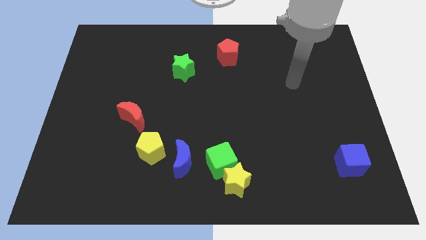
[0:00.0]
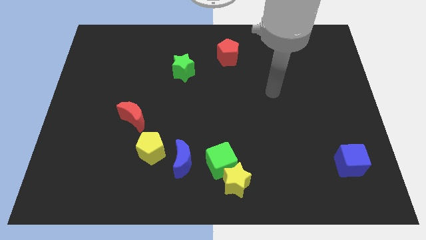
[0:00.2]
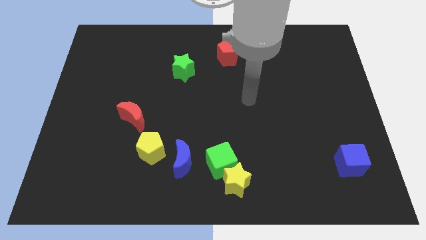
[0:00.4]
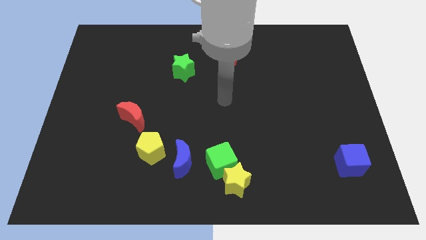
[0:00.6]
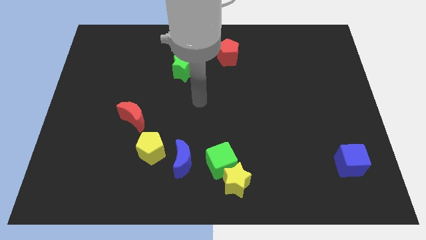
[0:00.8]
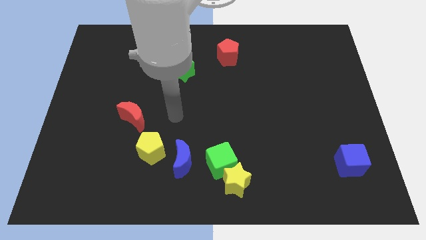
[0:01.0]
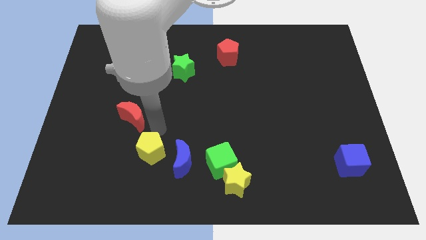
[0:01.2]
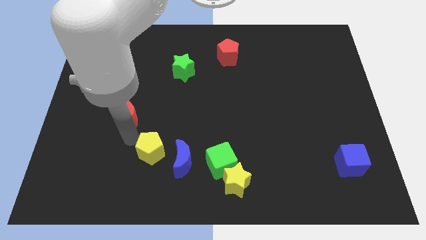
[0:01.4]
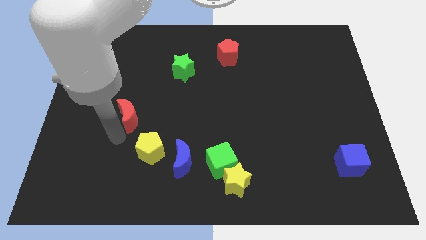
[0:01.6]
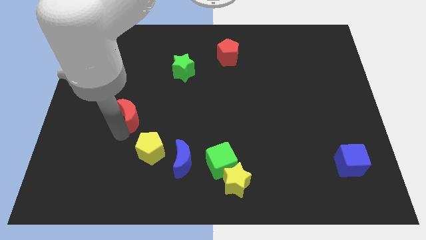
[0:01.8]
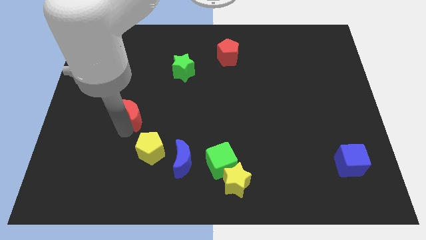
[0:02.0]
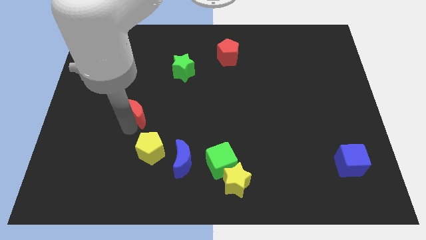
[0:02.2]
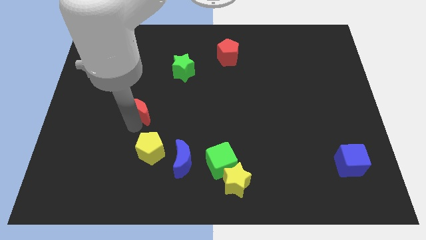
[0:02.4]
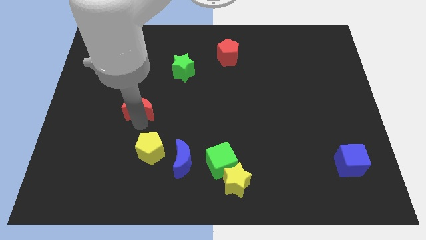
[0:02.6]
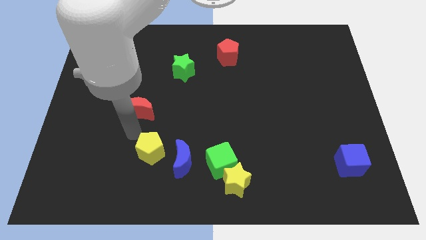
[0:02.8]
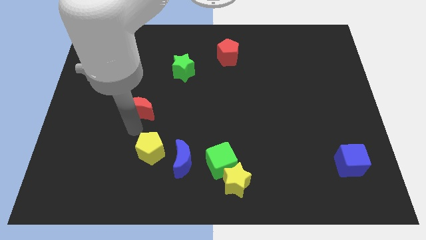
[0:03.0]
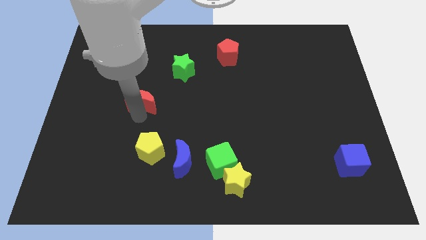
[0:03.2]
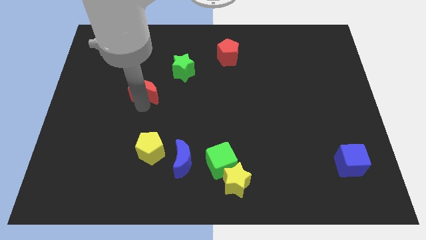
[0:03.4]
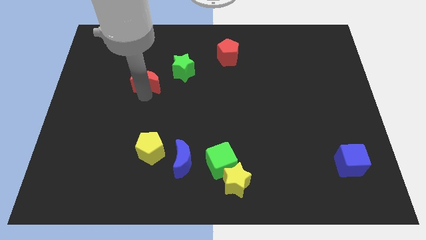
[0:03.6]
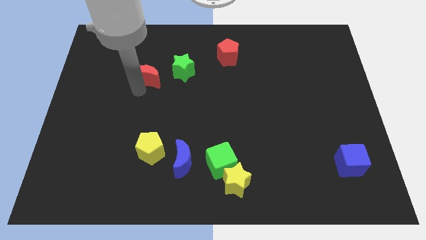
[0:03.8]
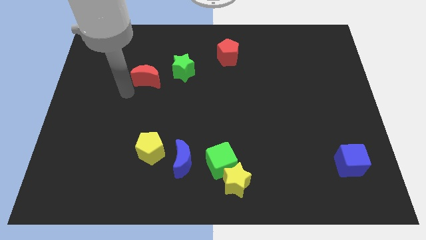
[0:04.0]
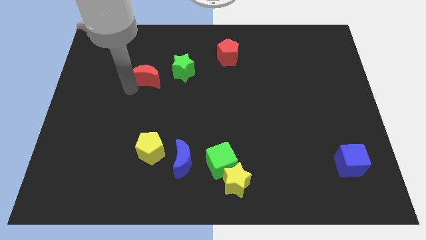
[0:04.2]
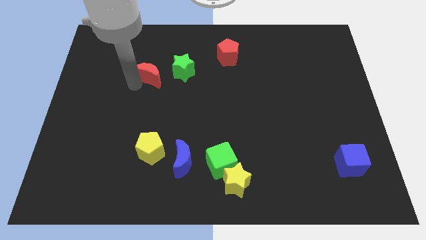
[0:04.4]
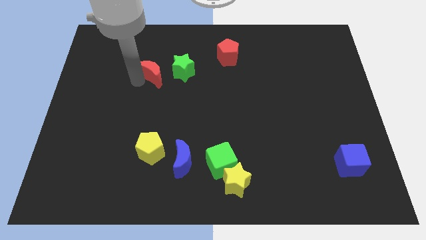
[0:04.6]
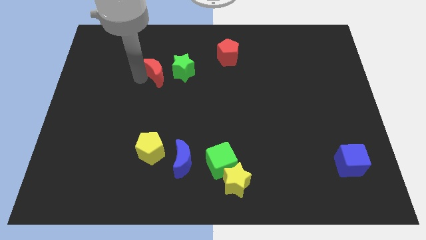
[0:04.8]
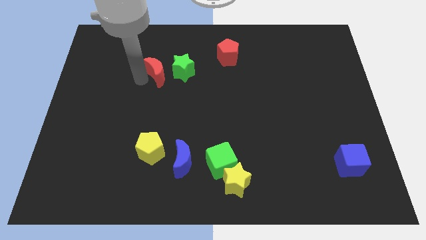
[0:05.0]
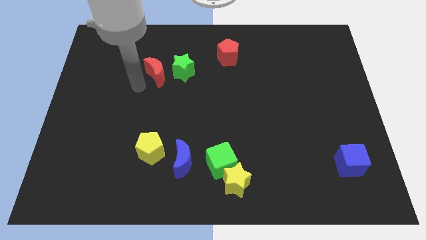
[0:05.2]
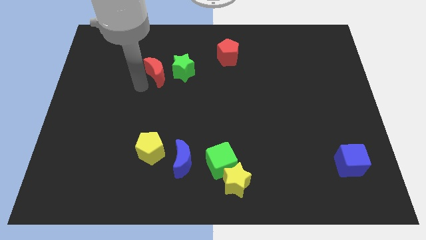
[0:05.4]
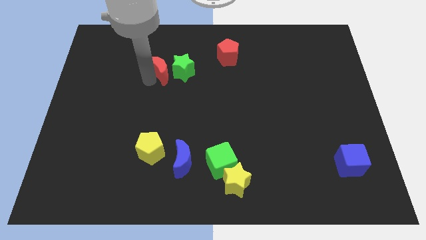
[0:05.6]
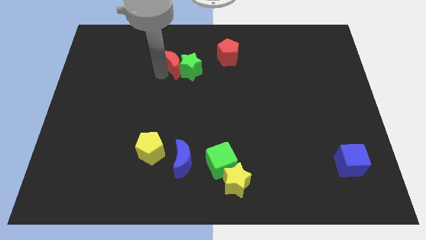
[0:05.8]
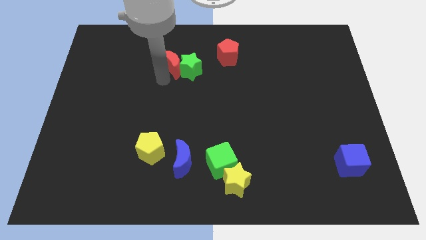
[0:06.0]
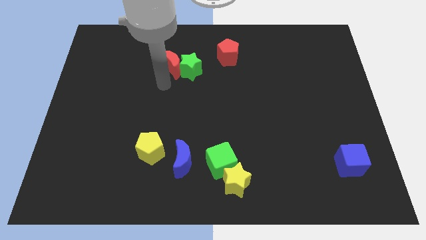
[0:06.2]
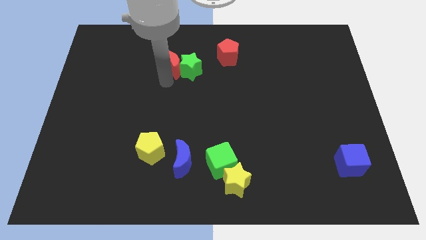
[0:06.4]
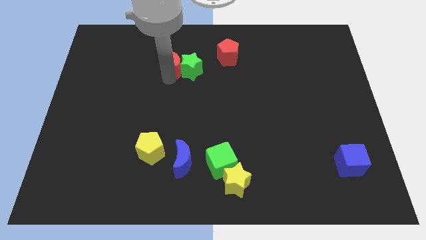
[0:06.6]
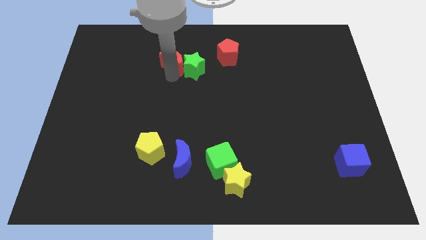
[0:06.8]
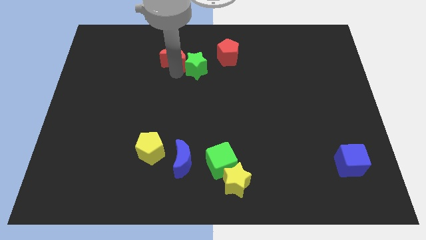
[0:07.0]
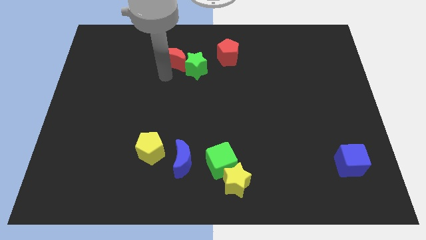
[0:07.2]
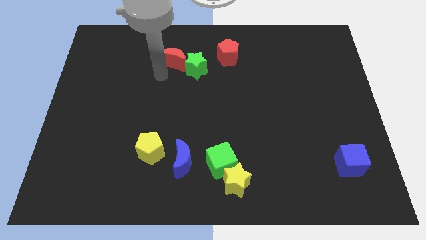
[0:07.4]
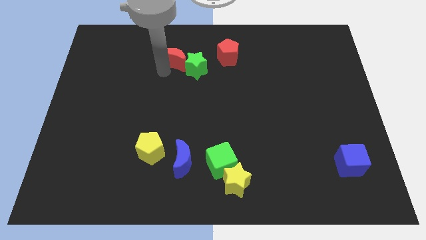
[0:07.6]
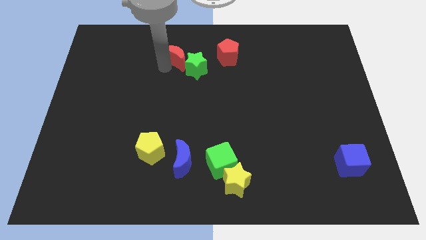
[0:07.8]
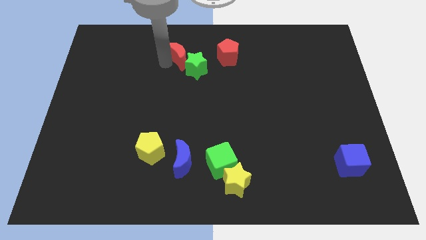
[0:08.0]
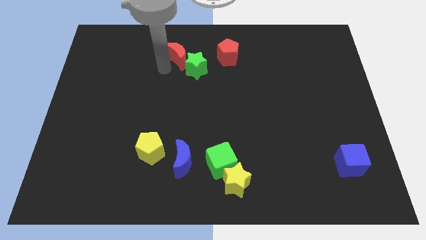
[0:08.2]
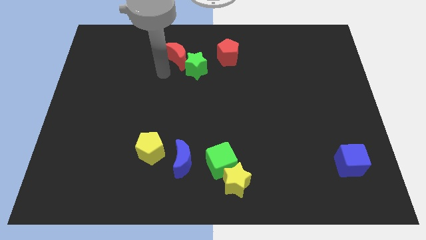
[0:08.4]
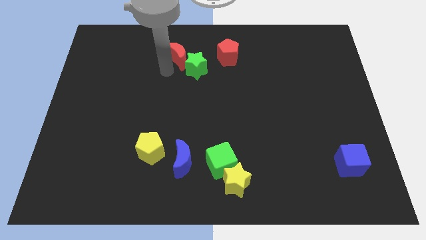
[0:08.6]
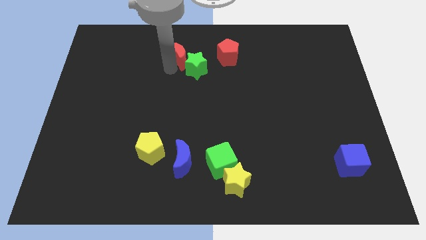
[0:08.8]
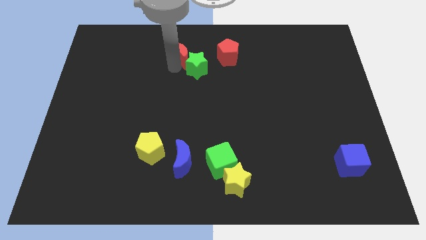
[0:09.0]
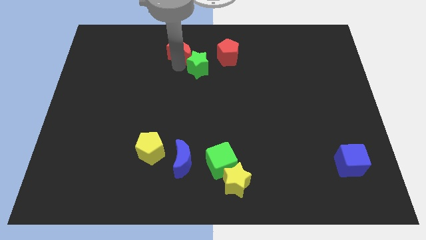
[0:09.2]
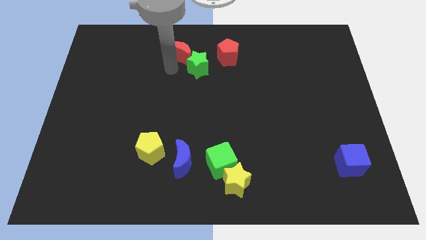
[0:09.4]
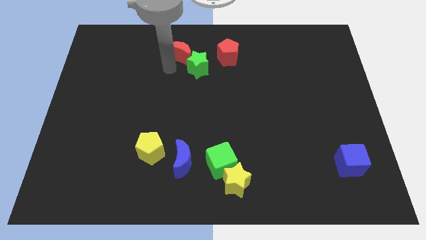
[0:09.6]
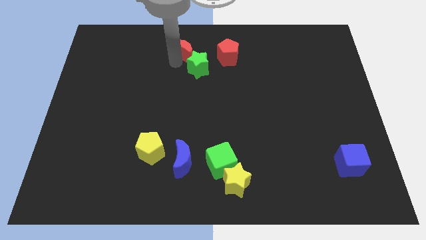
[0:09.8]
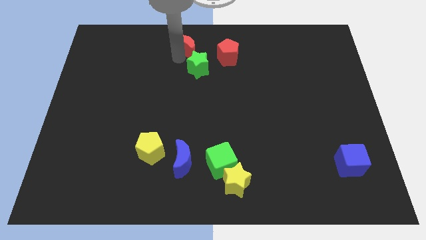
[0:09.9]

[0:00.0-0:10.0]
move the red moon to the top

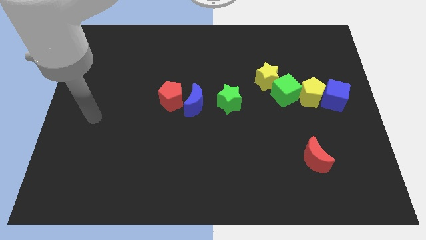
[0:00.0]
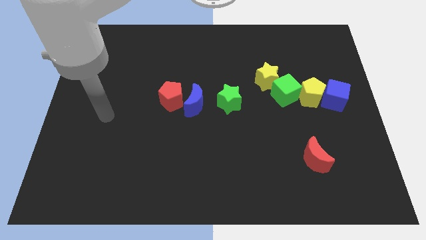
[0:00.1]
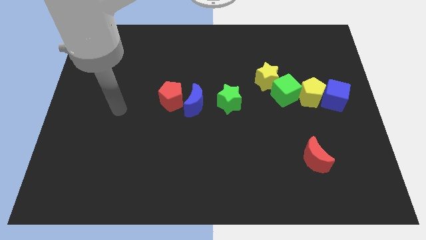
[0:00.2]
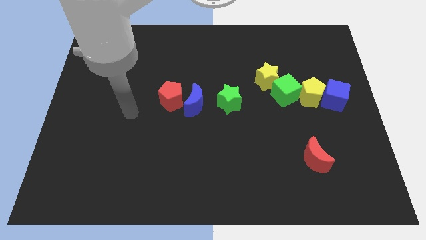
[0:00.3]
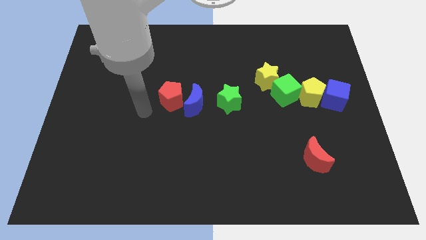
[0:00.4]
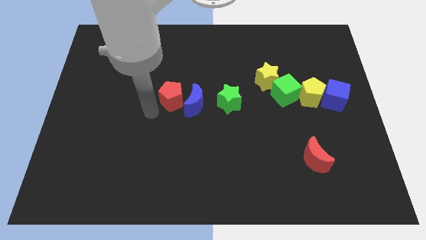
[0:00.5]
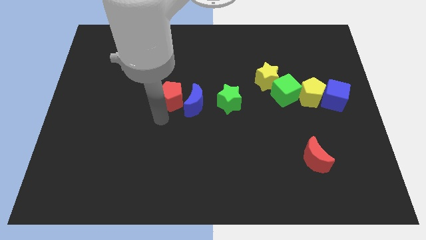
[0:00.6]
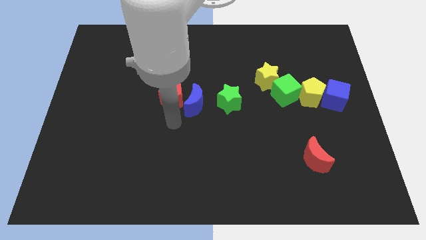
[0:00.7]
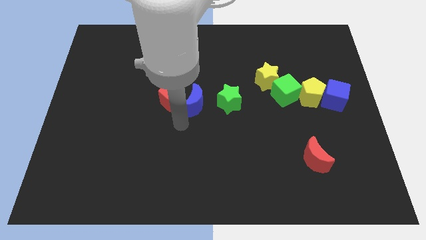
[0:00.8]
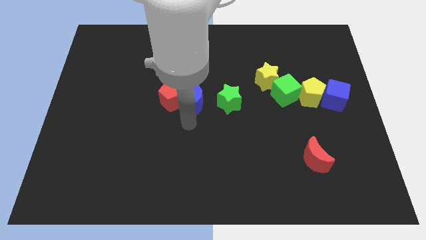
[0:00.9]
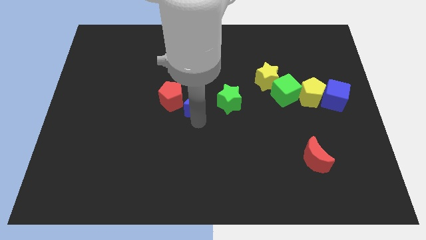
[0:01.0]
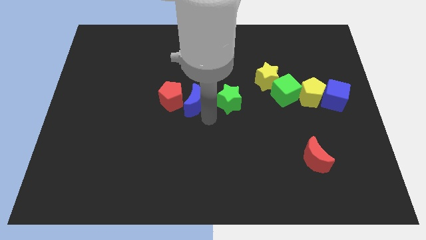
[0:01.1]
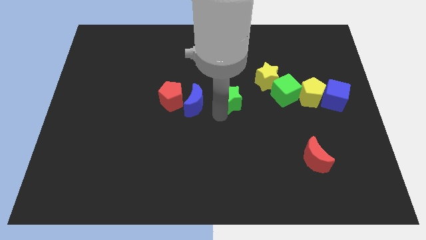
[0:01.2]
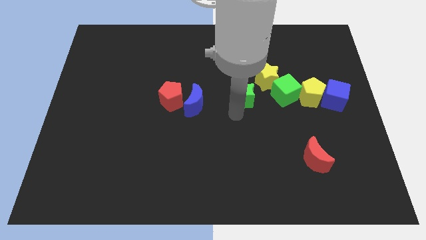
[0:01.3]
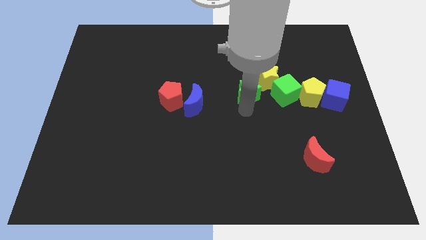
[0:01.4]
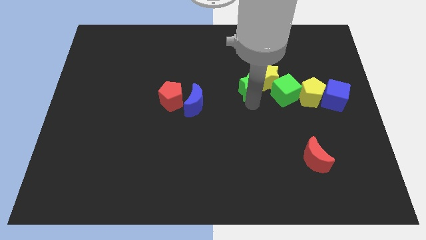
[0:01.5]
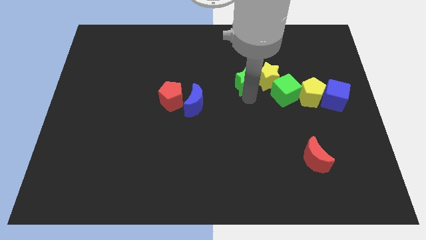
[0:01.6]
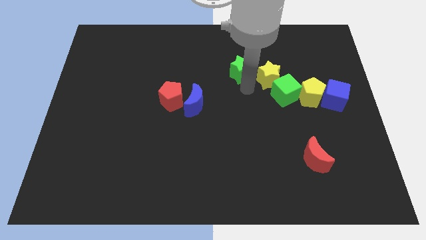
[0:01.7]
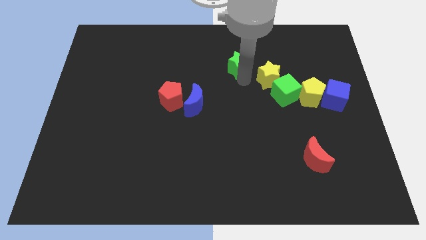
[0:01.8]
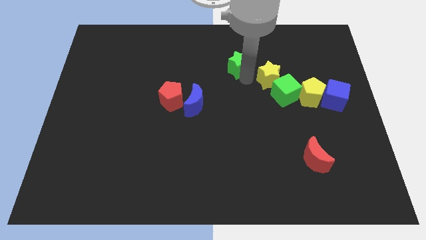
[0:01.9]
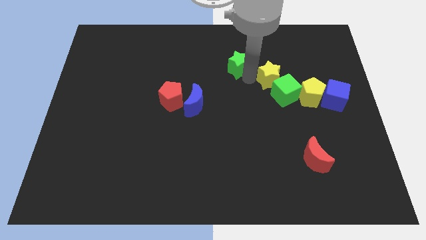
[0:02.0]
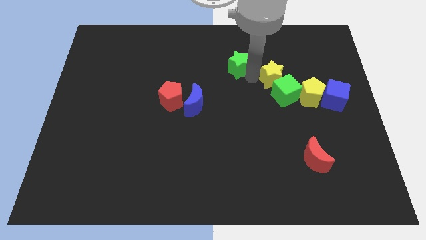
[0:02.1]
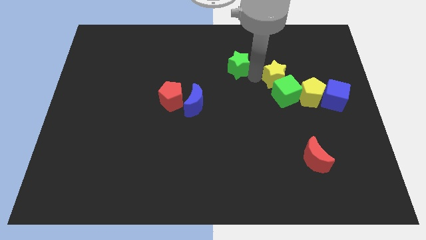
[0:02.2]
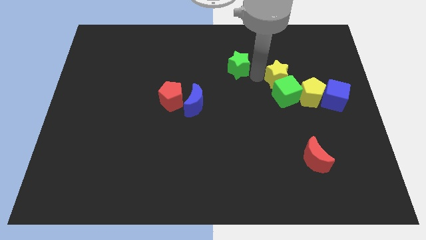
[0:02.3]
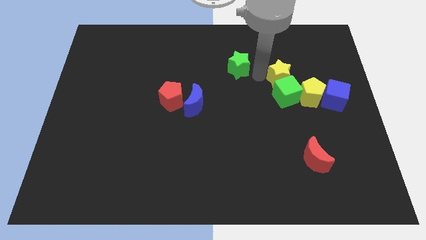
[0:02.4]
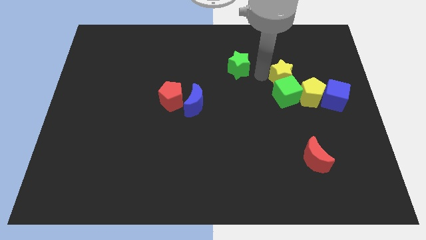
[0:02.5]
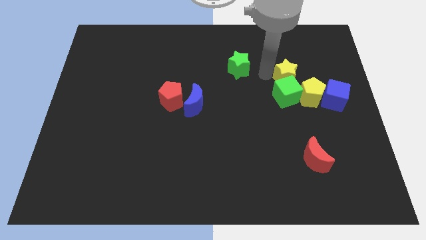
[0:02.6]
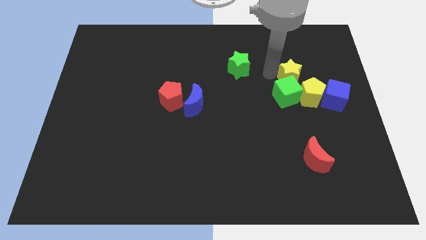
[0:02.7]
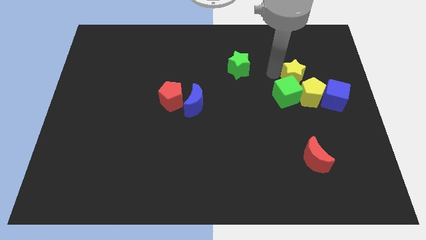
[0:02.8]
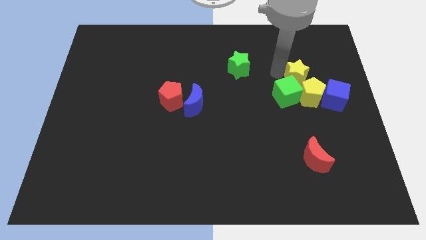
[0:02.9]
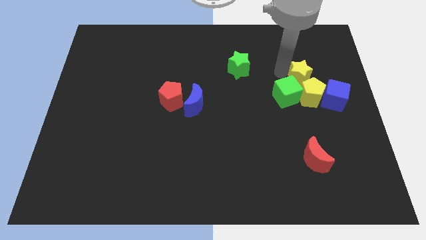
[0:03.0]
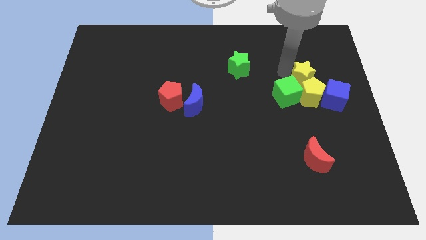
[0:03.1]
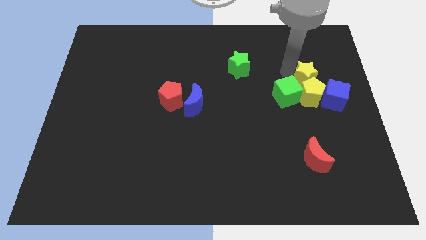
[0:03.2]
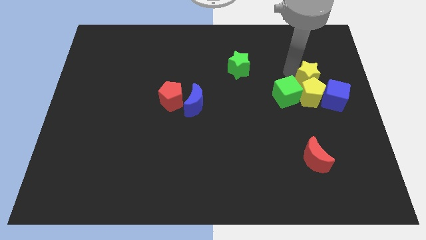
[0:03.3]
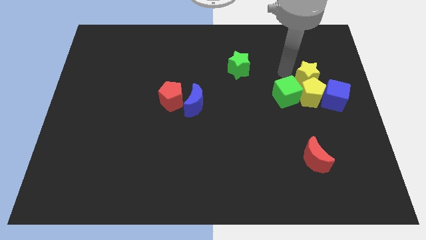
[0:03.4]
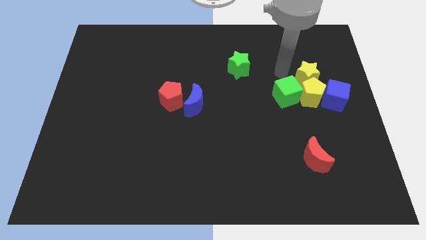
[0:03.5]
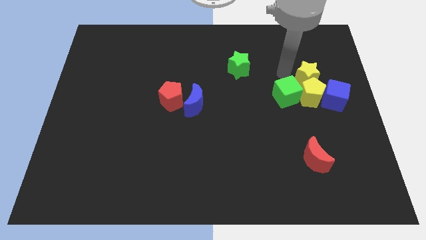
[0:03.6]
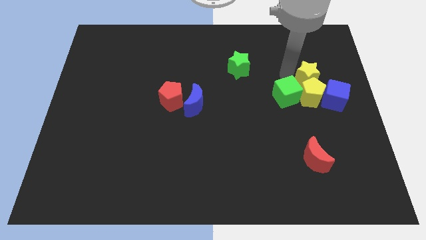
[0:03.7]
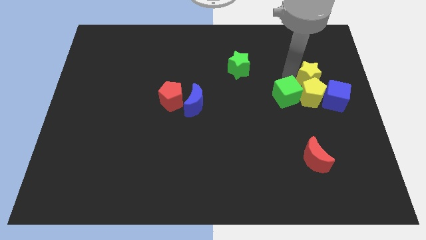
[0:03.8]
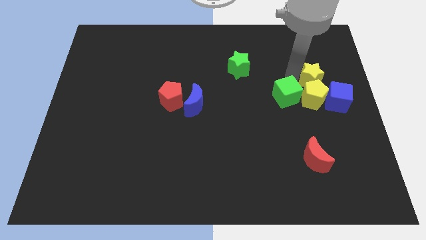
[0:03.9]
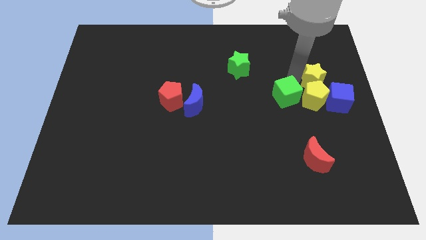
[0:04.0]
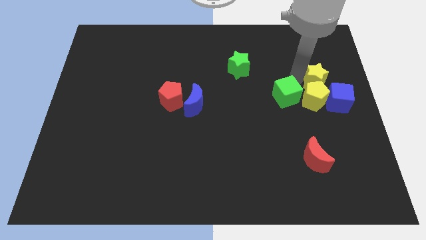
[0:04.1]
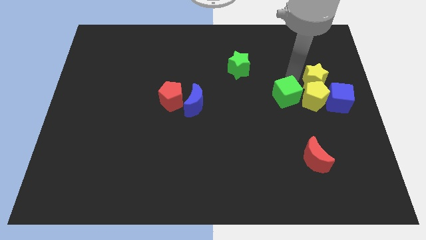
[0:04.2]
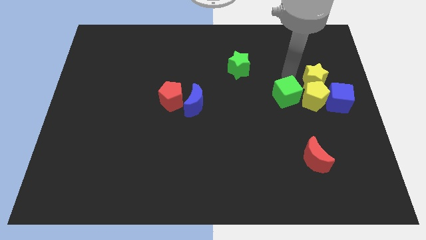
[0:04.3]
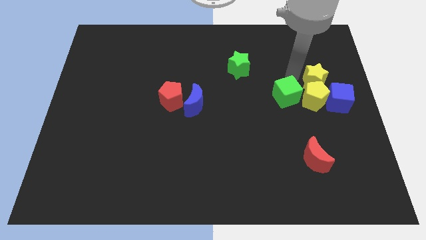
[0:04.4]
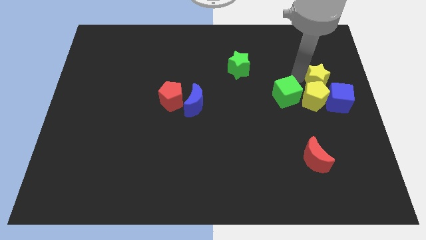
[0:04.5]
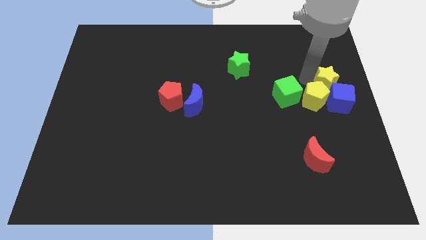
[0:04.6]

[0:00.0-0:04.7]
push the yellow star to the right side of the board
